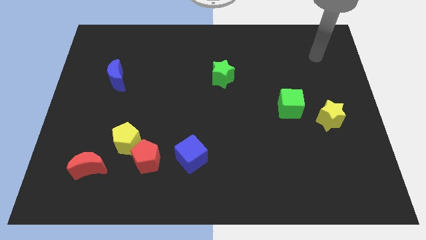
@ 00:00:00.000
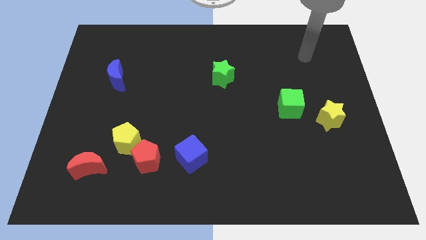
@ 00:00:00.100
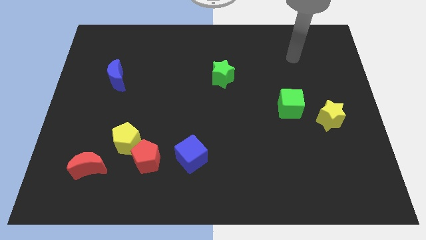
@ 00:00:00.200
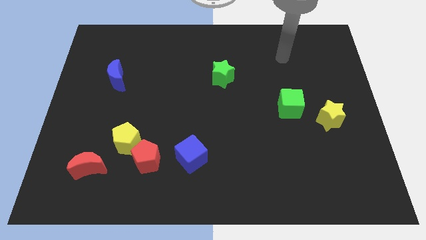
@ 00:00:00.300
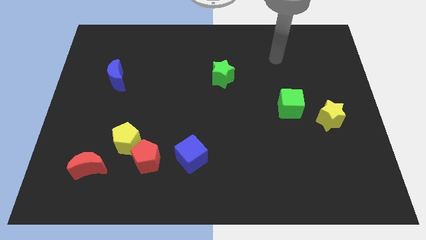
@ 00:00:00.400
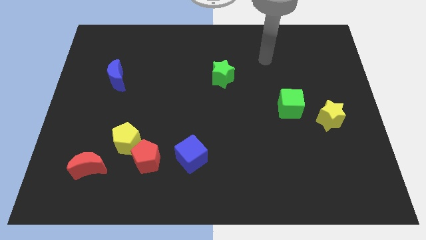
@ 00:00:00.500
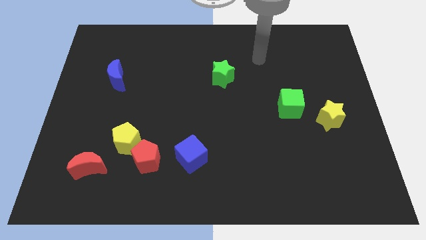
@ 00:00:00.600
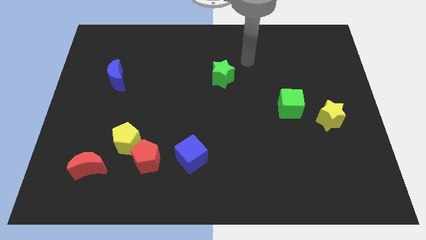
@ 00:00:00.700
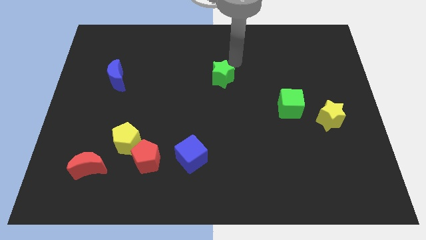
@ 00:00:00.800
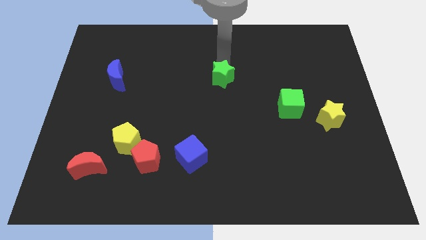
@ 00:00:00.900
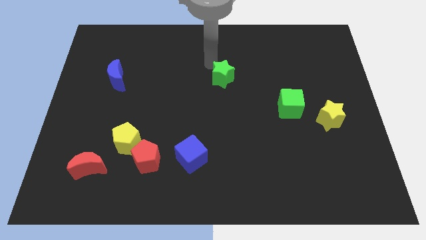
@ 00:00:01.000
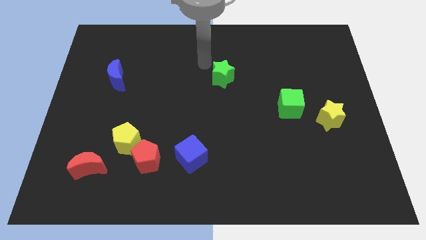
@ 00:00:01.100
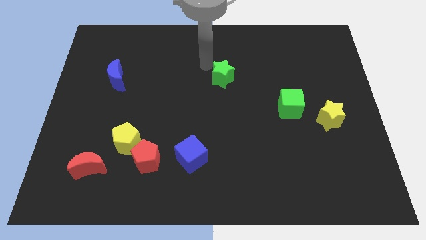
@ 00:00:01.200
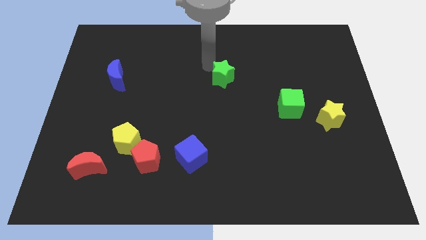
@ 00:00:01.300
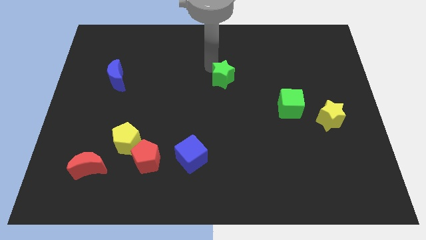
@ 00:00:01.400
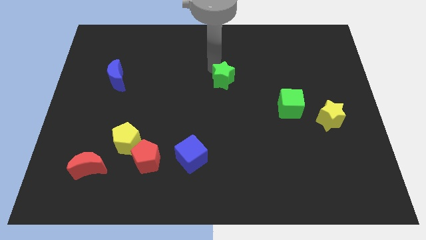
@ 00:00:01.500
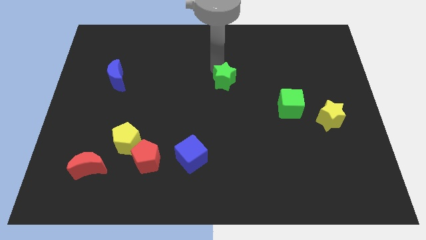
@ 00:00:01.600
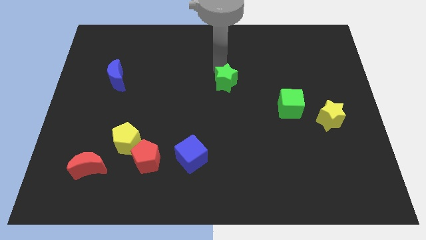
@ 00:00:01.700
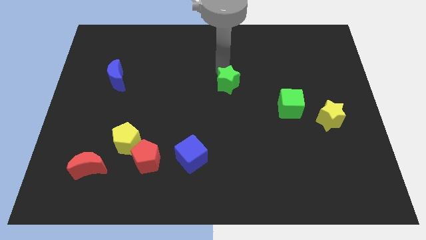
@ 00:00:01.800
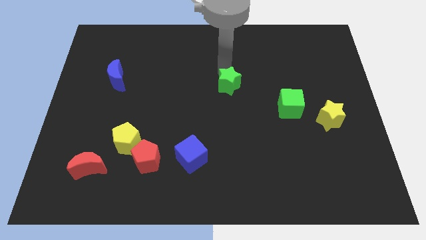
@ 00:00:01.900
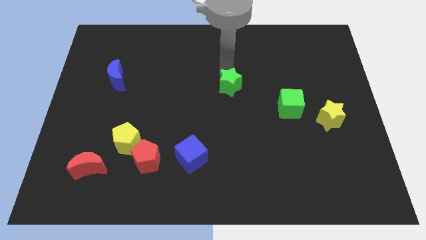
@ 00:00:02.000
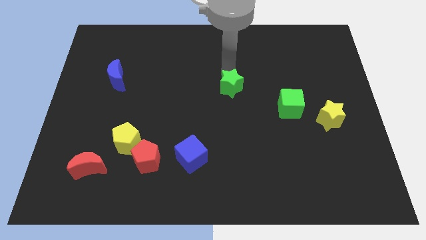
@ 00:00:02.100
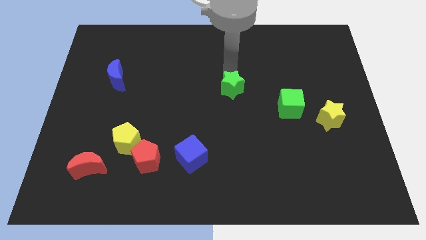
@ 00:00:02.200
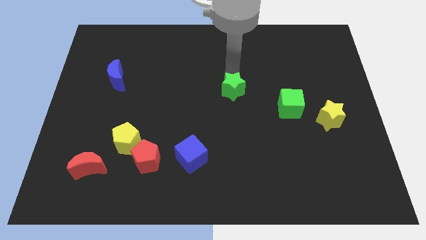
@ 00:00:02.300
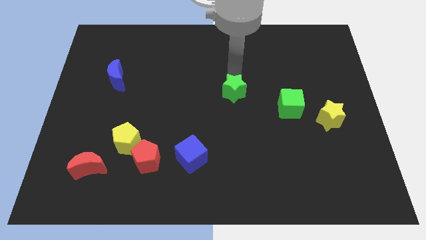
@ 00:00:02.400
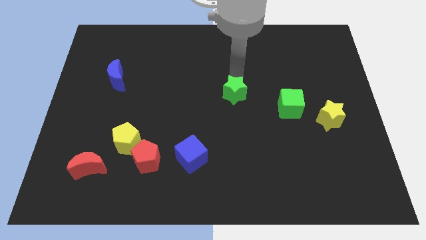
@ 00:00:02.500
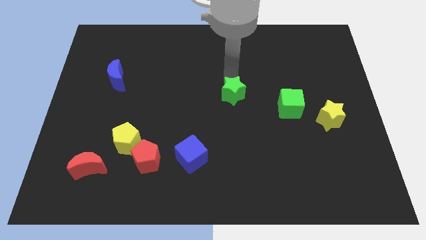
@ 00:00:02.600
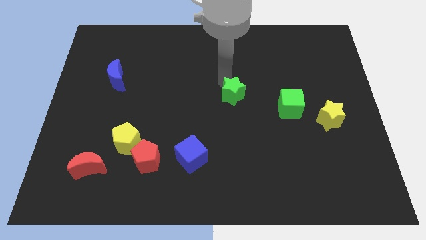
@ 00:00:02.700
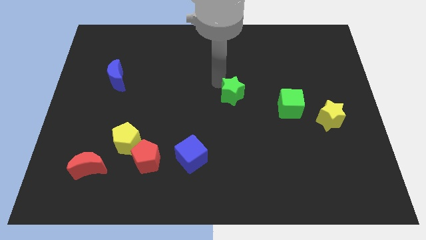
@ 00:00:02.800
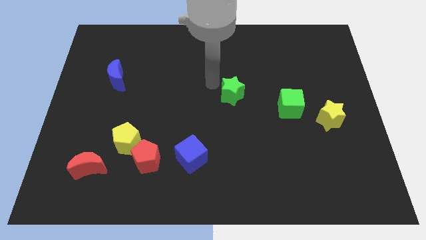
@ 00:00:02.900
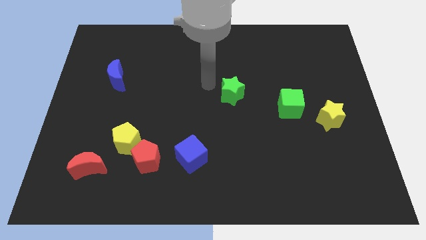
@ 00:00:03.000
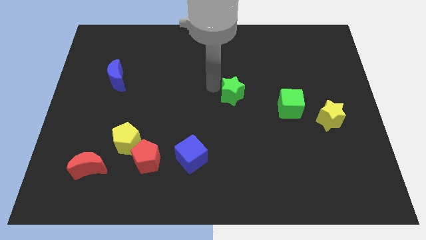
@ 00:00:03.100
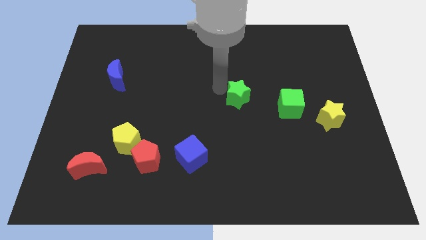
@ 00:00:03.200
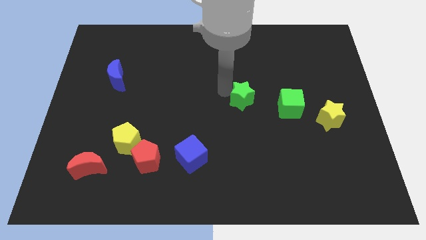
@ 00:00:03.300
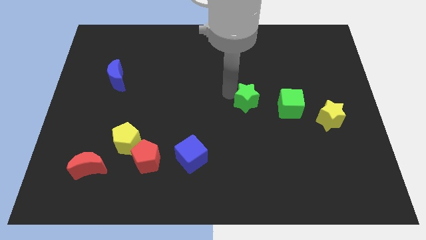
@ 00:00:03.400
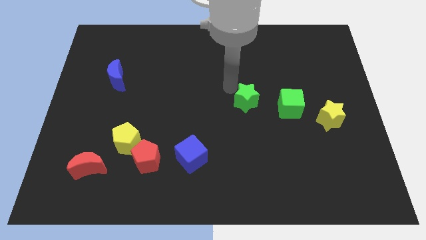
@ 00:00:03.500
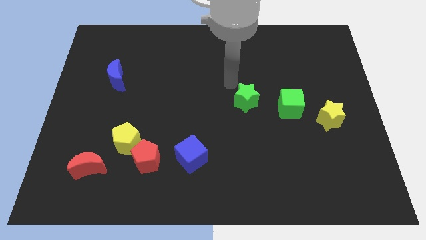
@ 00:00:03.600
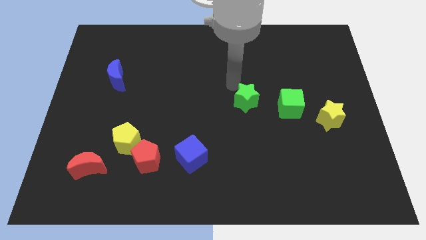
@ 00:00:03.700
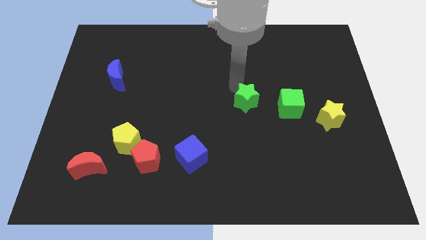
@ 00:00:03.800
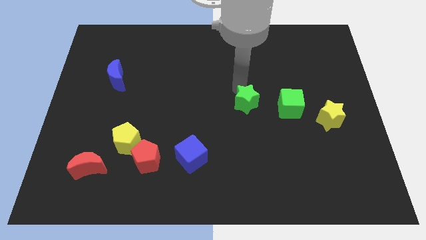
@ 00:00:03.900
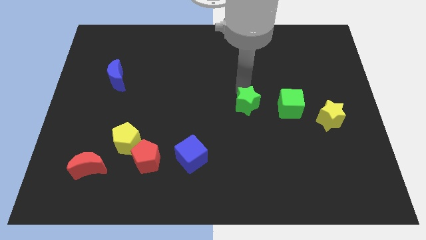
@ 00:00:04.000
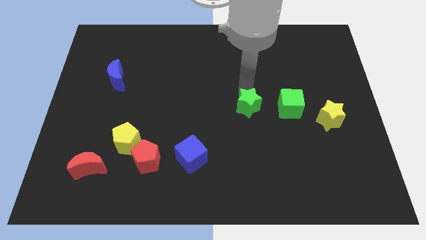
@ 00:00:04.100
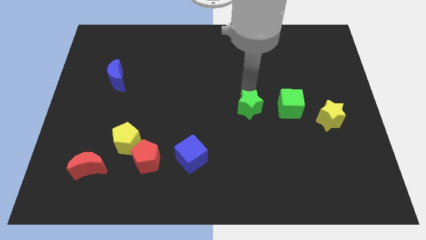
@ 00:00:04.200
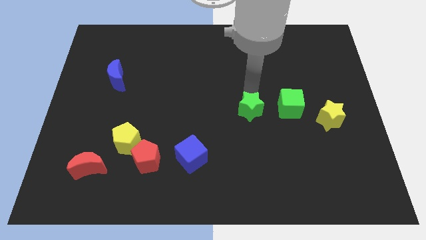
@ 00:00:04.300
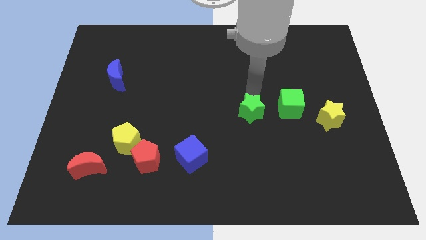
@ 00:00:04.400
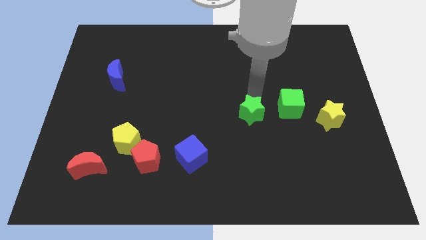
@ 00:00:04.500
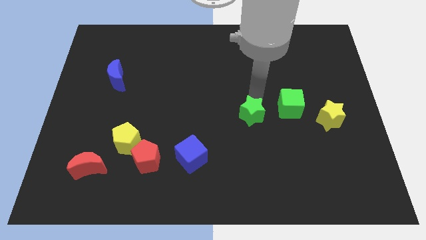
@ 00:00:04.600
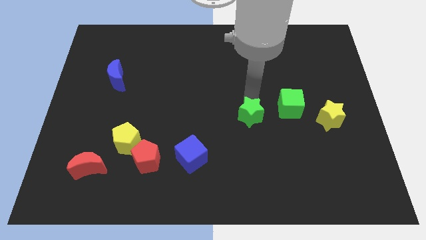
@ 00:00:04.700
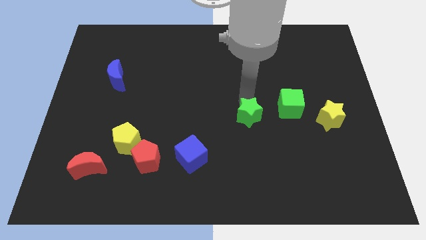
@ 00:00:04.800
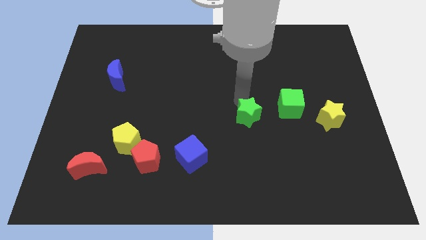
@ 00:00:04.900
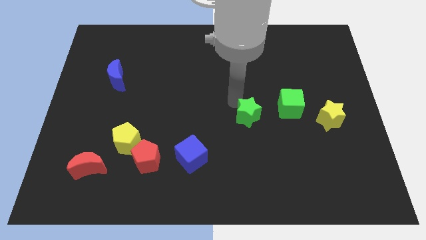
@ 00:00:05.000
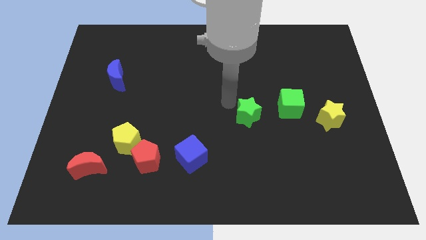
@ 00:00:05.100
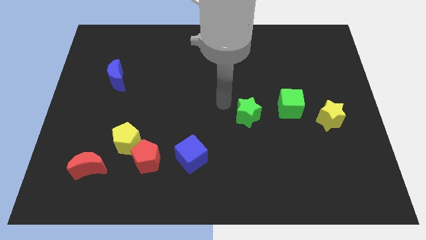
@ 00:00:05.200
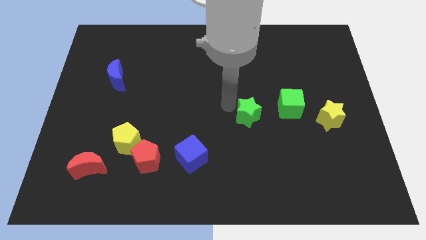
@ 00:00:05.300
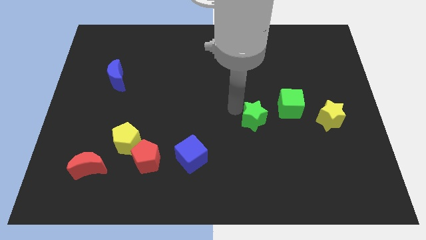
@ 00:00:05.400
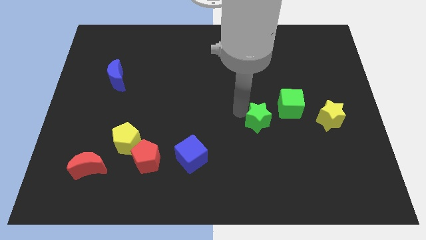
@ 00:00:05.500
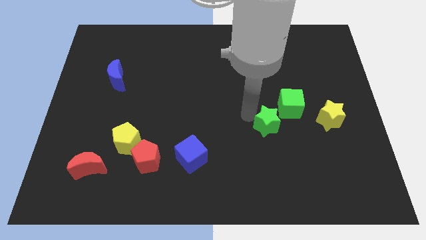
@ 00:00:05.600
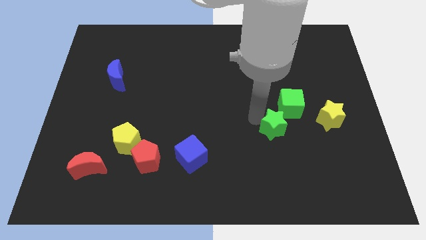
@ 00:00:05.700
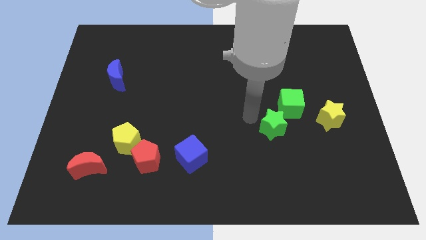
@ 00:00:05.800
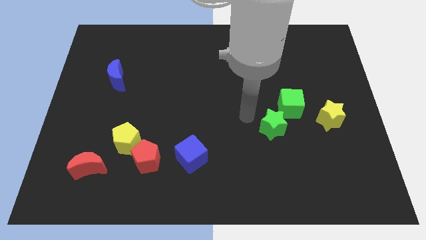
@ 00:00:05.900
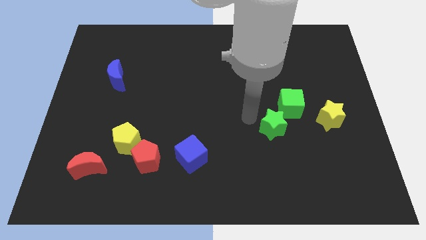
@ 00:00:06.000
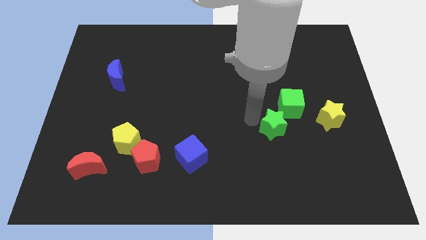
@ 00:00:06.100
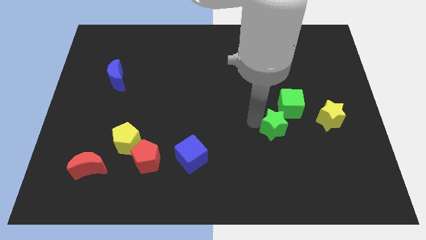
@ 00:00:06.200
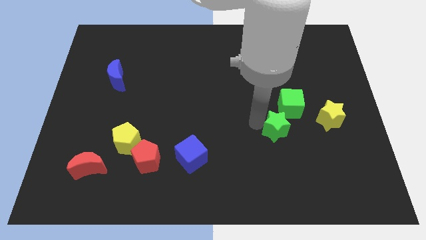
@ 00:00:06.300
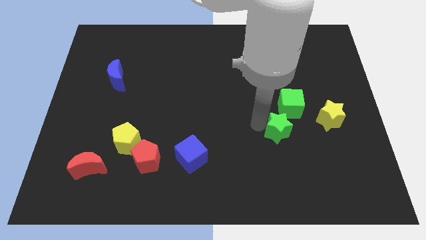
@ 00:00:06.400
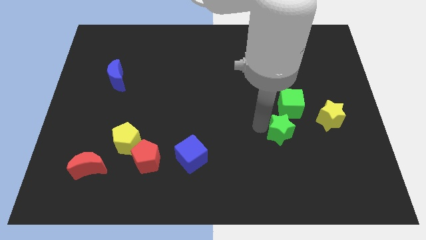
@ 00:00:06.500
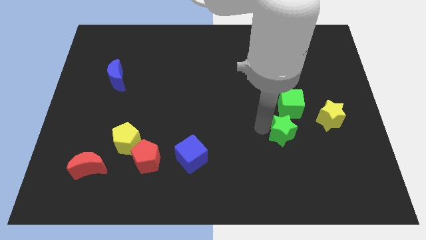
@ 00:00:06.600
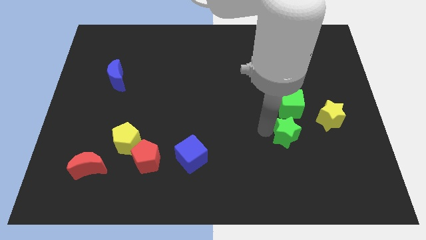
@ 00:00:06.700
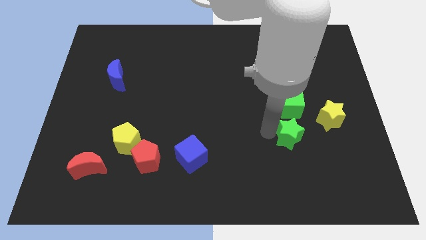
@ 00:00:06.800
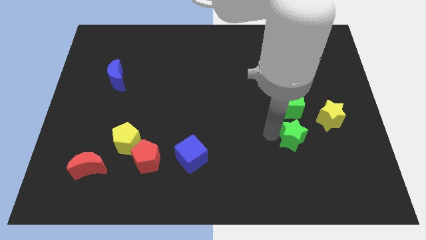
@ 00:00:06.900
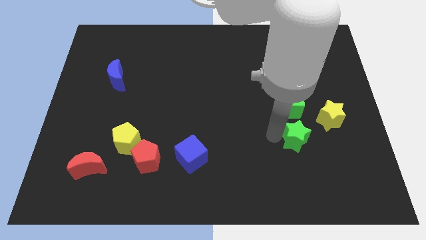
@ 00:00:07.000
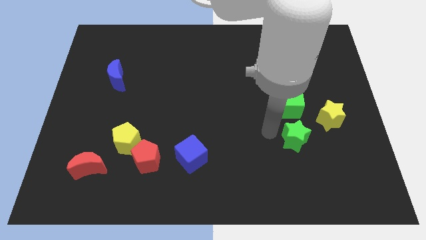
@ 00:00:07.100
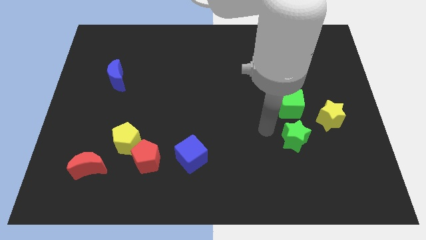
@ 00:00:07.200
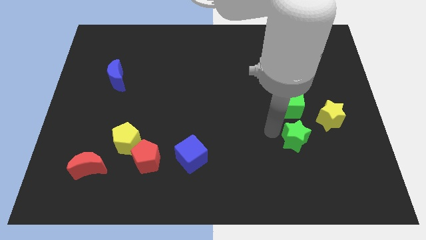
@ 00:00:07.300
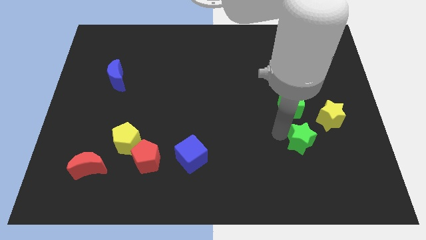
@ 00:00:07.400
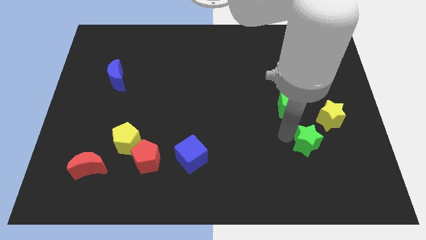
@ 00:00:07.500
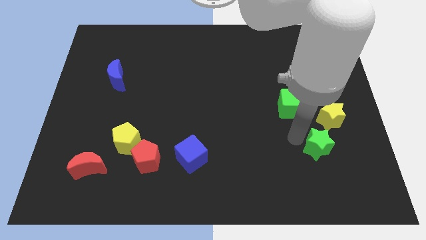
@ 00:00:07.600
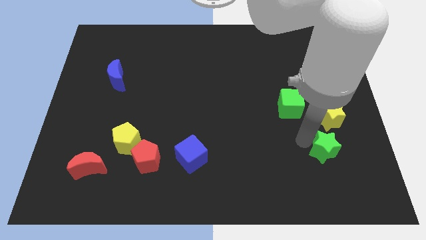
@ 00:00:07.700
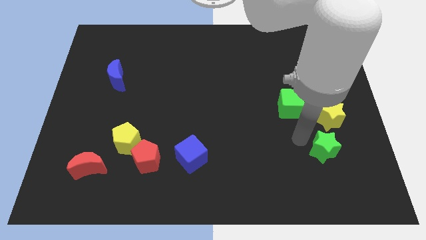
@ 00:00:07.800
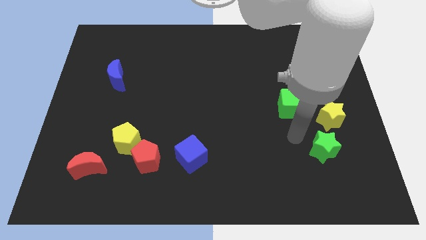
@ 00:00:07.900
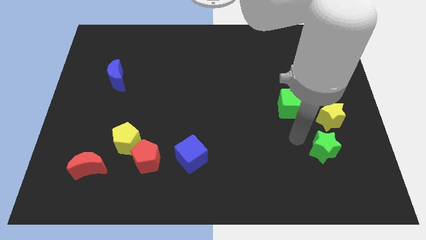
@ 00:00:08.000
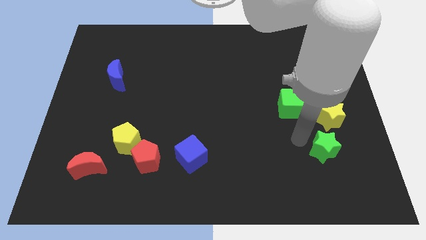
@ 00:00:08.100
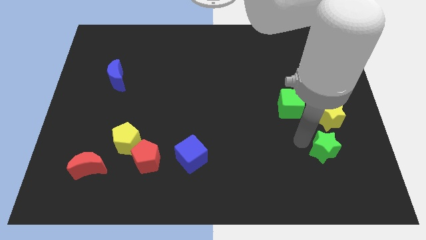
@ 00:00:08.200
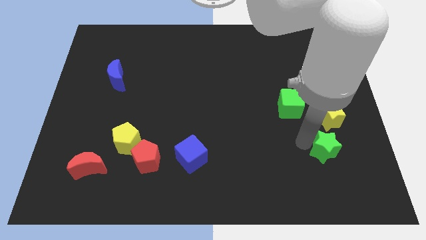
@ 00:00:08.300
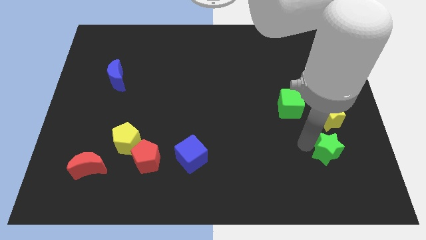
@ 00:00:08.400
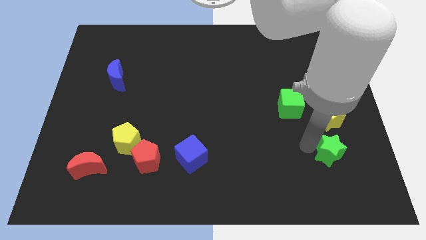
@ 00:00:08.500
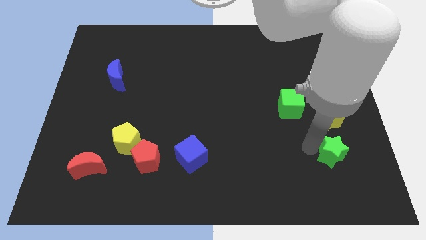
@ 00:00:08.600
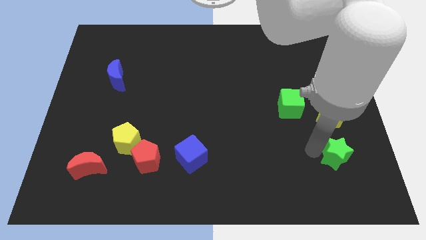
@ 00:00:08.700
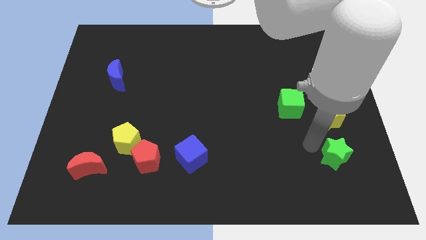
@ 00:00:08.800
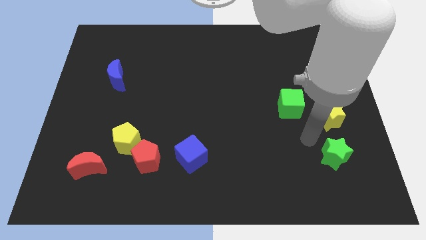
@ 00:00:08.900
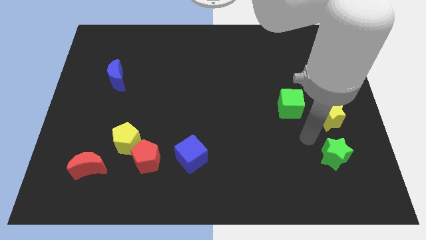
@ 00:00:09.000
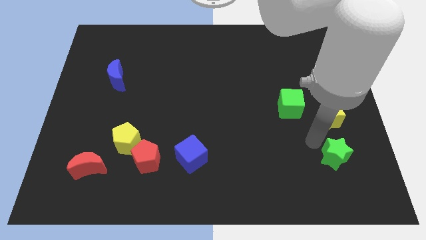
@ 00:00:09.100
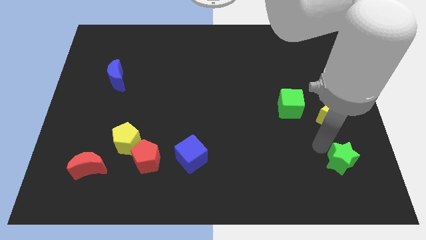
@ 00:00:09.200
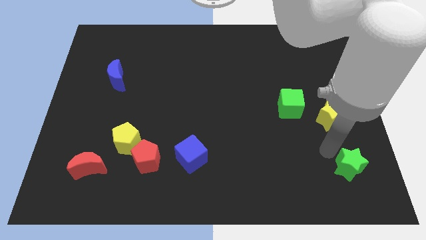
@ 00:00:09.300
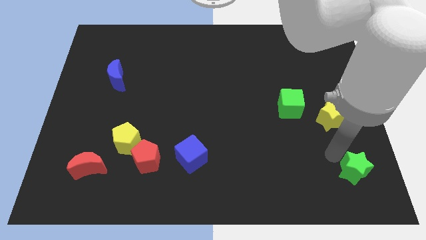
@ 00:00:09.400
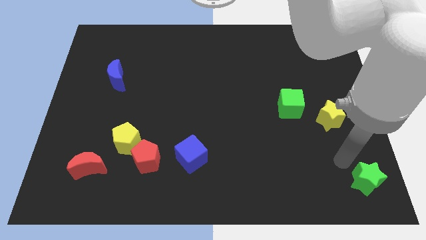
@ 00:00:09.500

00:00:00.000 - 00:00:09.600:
put the green star to the bottom right corner
